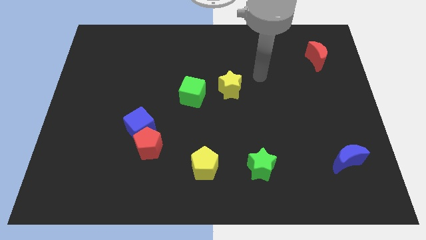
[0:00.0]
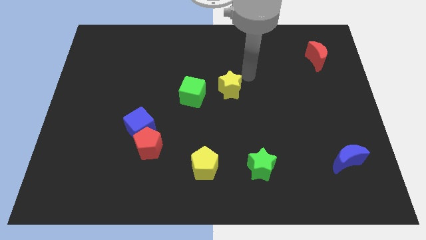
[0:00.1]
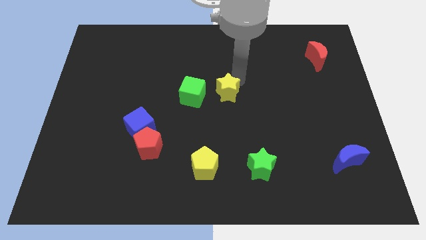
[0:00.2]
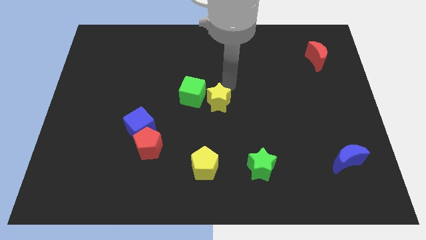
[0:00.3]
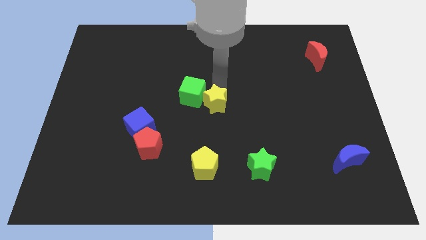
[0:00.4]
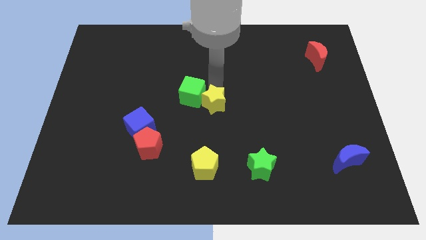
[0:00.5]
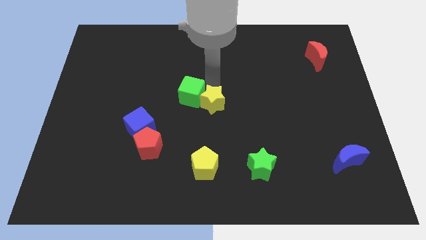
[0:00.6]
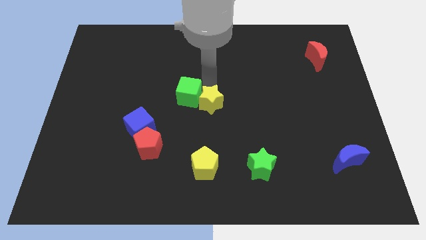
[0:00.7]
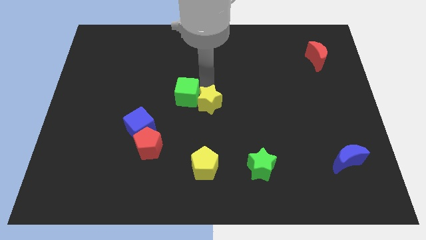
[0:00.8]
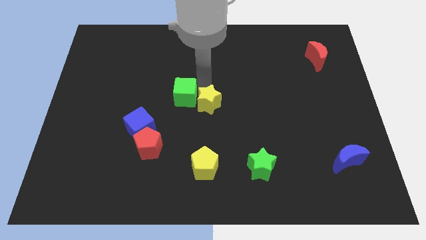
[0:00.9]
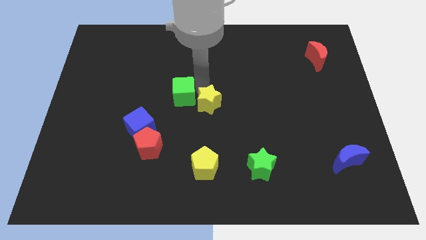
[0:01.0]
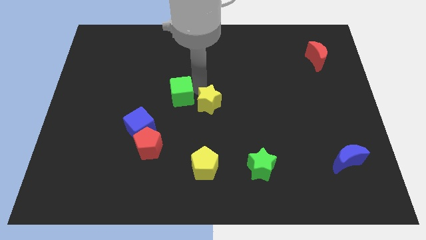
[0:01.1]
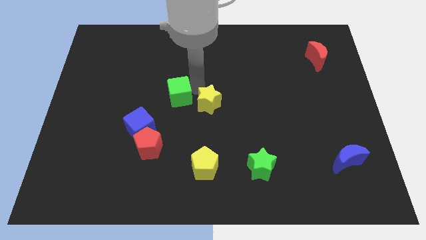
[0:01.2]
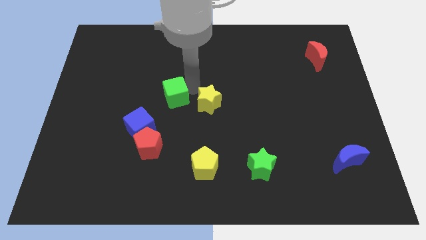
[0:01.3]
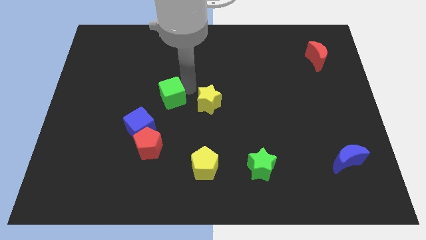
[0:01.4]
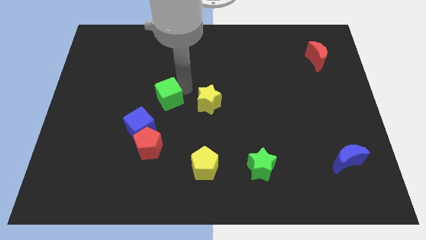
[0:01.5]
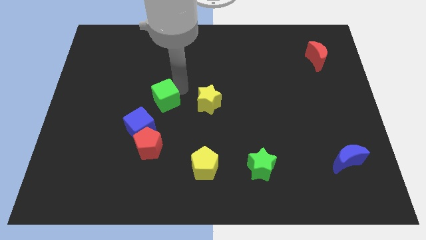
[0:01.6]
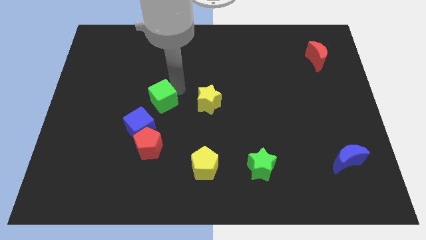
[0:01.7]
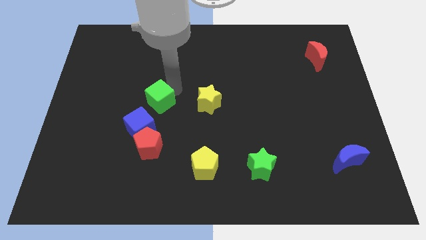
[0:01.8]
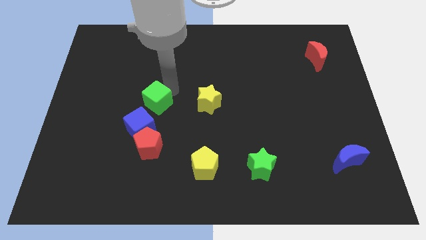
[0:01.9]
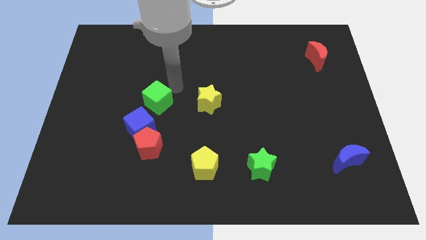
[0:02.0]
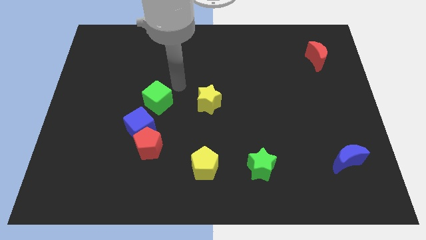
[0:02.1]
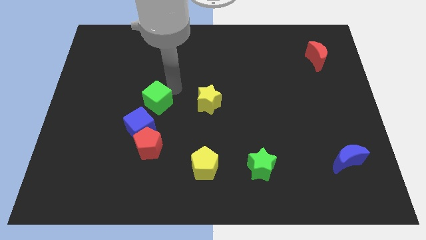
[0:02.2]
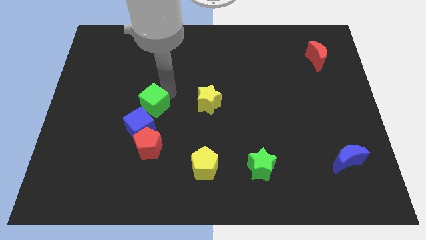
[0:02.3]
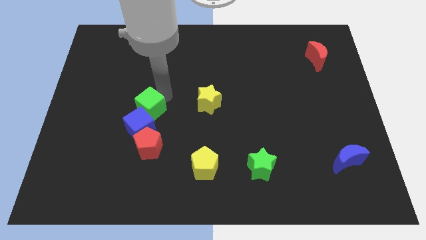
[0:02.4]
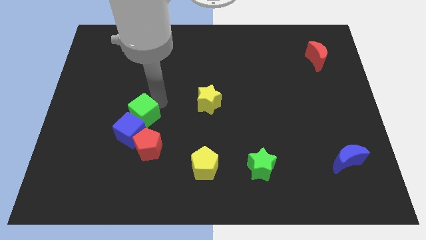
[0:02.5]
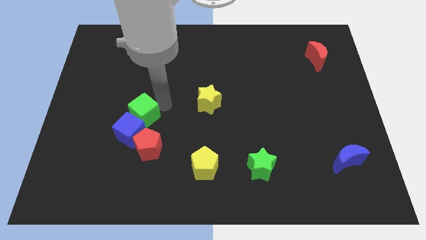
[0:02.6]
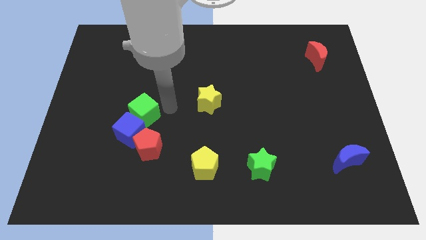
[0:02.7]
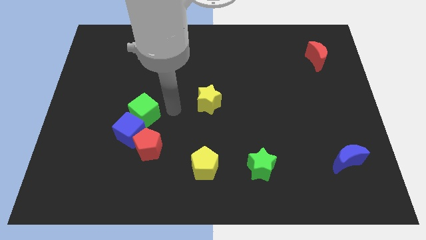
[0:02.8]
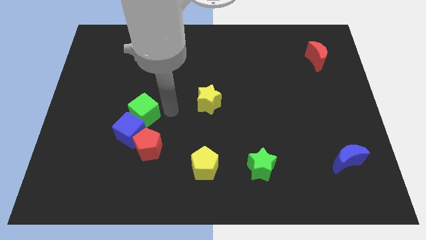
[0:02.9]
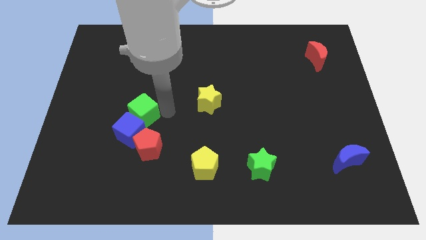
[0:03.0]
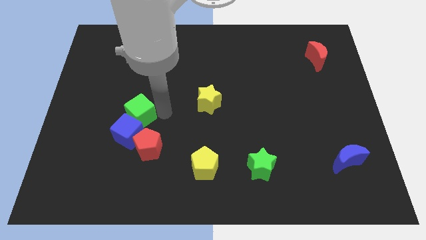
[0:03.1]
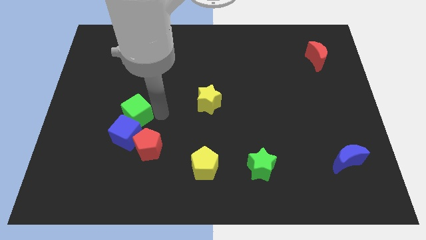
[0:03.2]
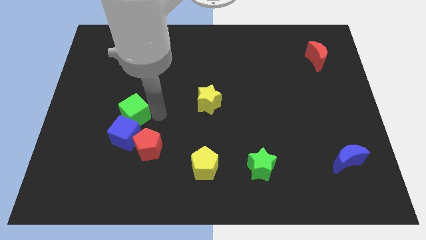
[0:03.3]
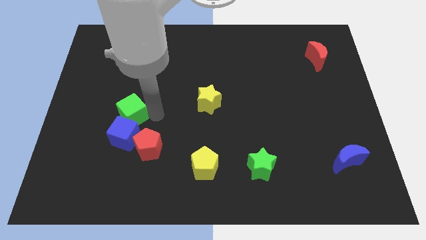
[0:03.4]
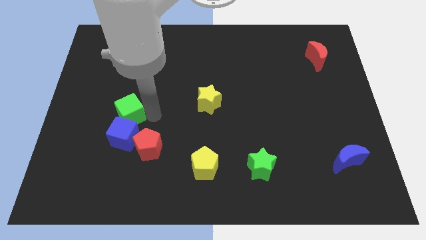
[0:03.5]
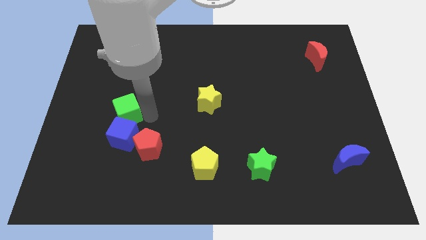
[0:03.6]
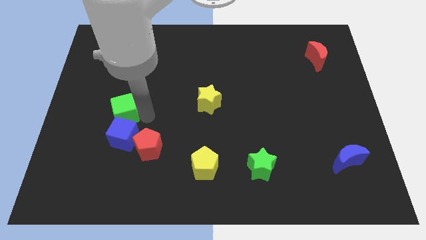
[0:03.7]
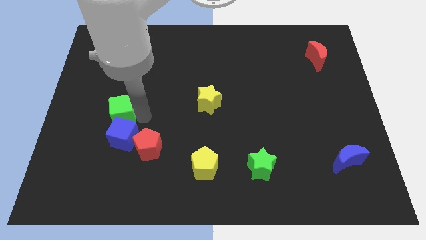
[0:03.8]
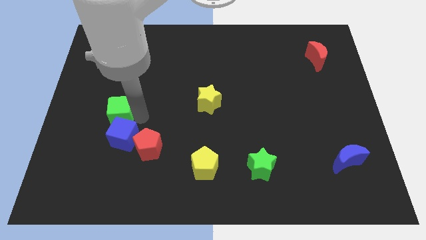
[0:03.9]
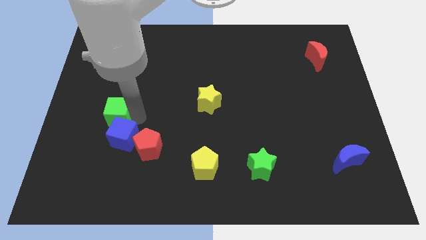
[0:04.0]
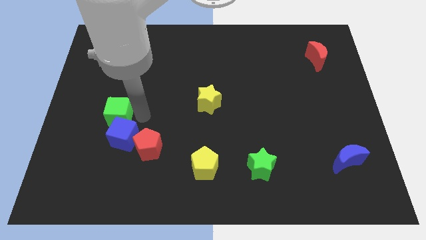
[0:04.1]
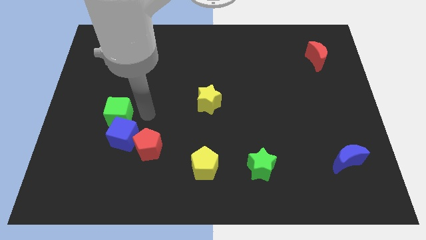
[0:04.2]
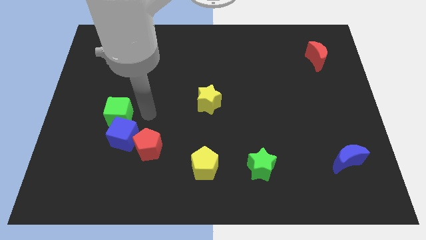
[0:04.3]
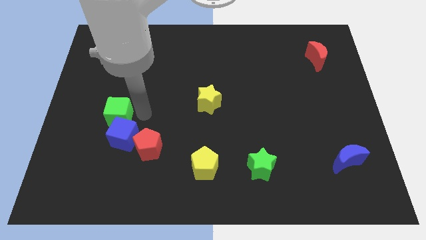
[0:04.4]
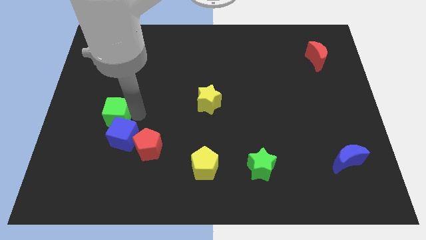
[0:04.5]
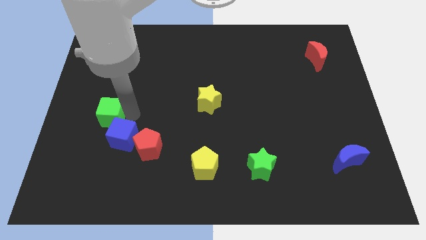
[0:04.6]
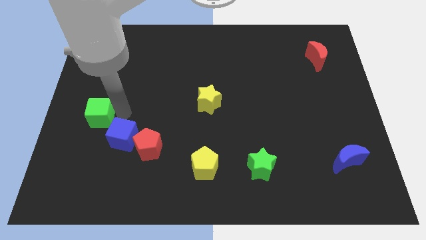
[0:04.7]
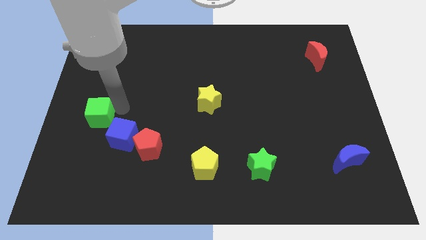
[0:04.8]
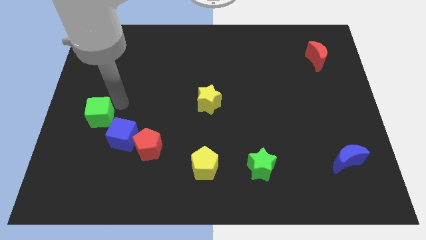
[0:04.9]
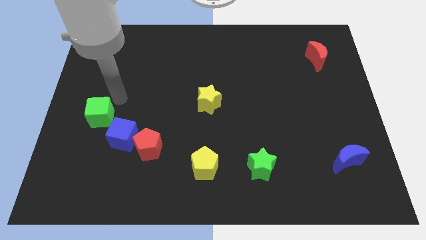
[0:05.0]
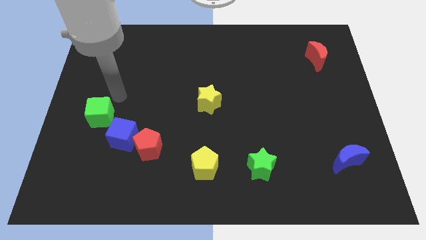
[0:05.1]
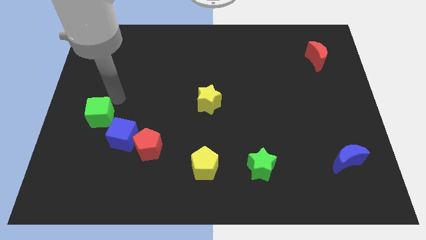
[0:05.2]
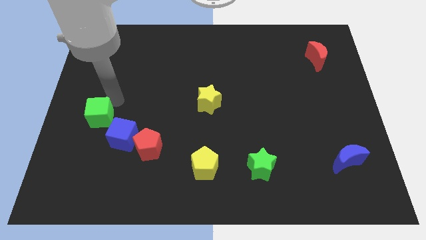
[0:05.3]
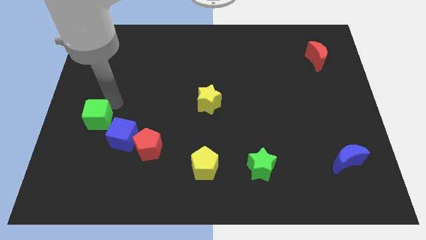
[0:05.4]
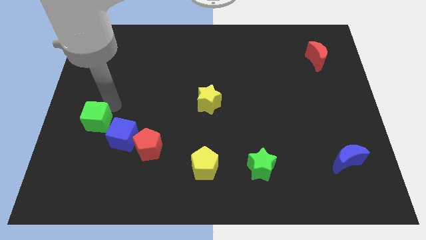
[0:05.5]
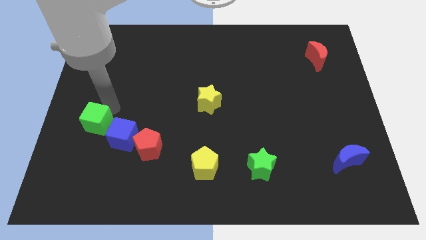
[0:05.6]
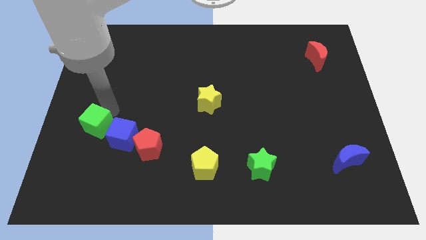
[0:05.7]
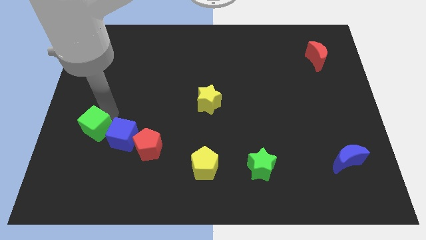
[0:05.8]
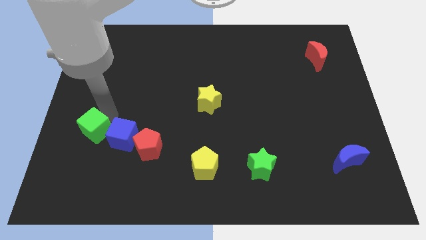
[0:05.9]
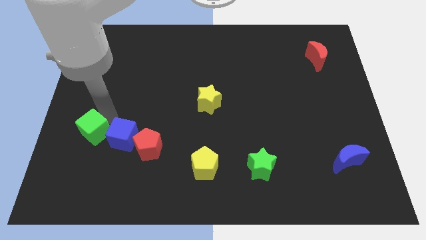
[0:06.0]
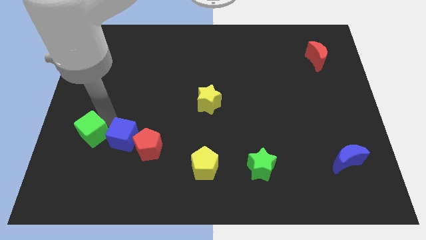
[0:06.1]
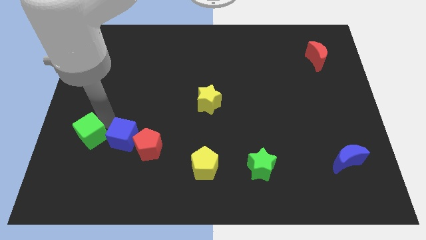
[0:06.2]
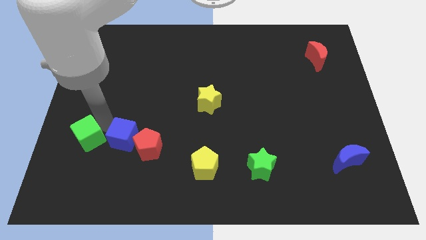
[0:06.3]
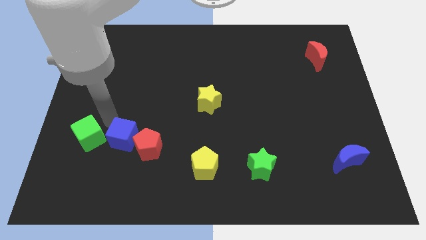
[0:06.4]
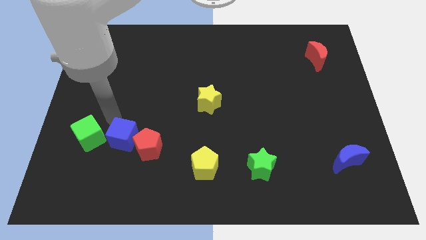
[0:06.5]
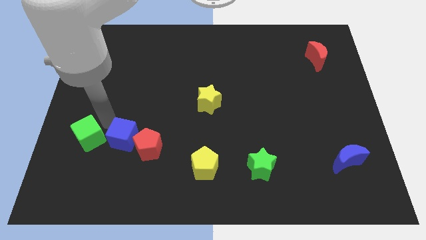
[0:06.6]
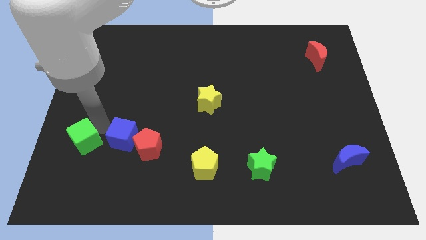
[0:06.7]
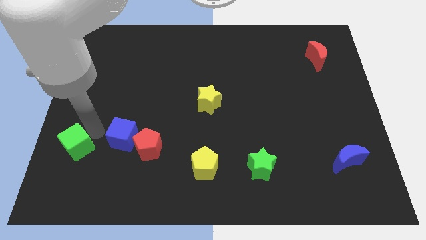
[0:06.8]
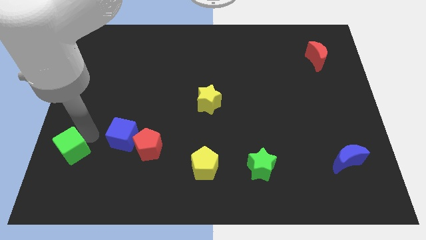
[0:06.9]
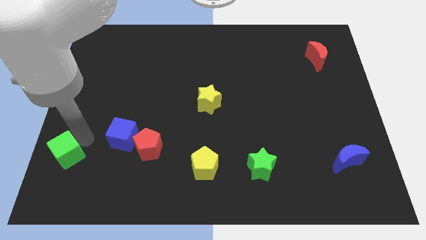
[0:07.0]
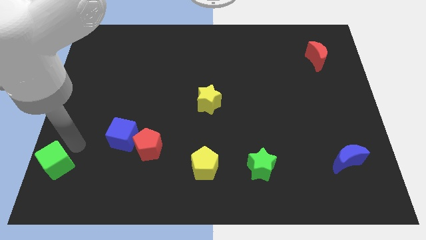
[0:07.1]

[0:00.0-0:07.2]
slide the green cube to the bottom left of the board
